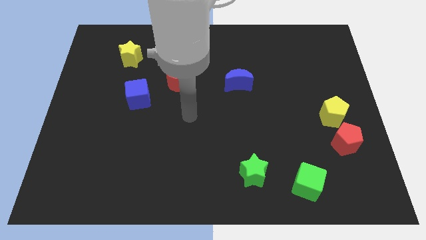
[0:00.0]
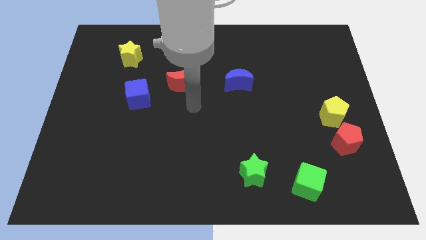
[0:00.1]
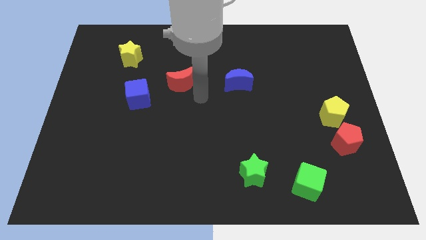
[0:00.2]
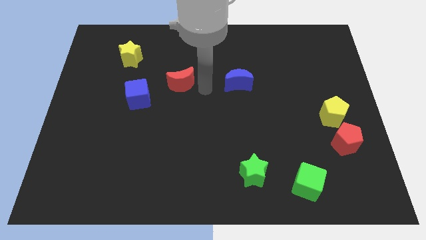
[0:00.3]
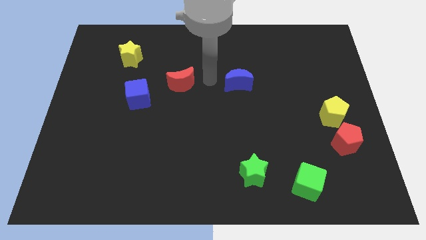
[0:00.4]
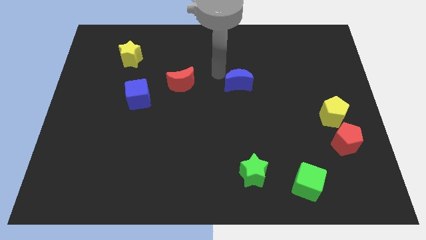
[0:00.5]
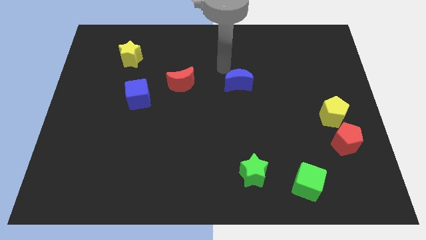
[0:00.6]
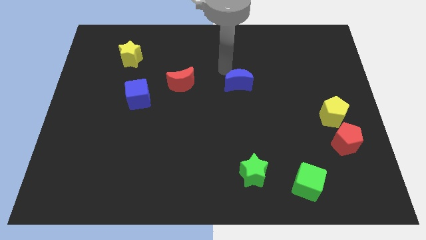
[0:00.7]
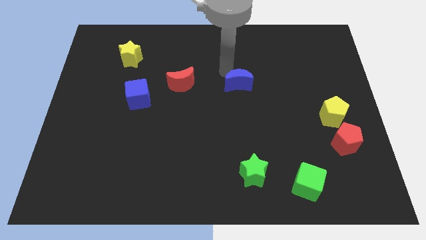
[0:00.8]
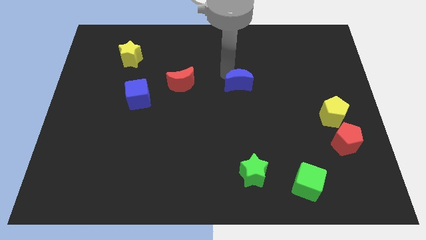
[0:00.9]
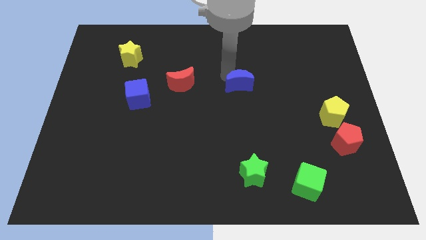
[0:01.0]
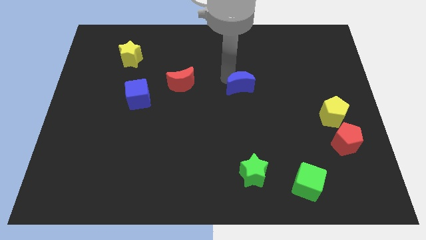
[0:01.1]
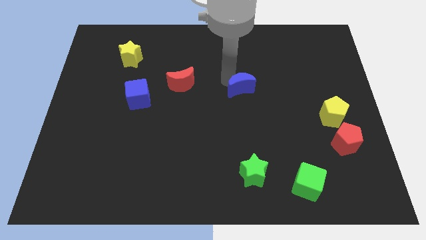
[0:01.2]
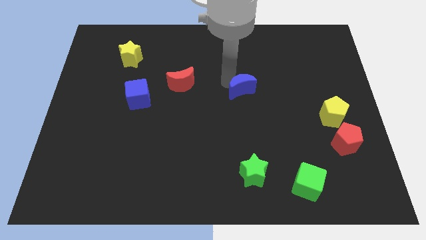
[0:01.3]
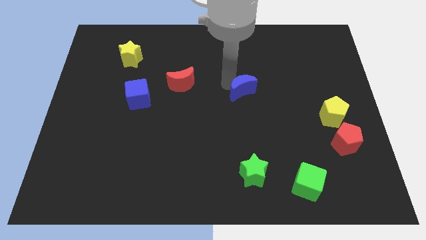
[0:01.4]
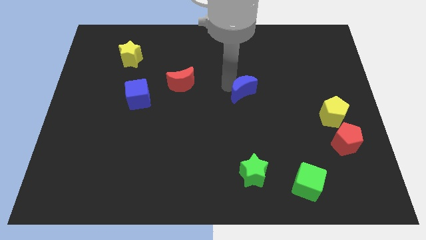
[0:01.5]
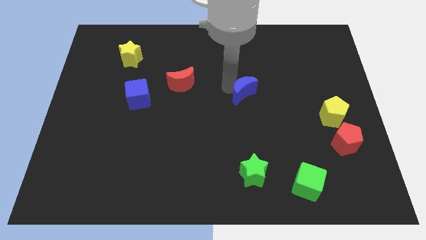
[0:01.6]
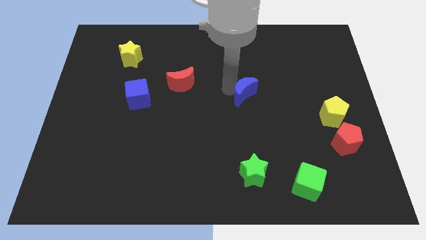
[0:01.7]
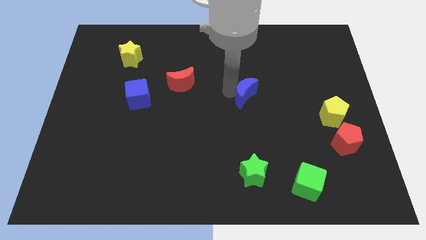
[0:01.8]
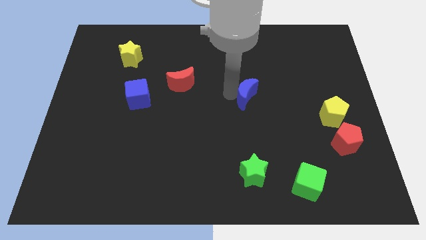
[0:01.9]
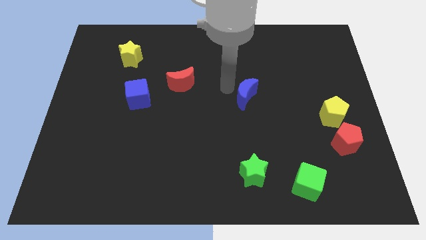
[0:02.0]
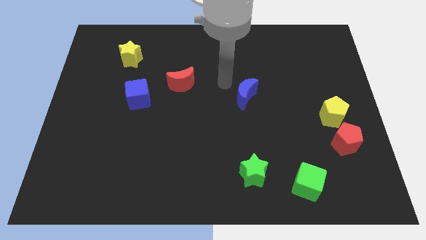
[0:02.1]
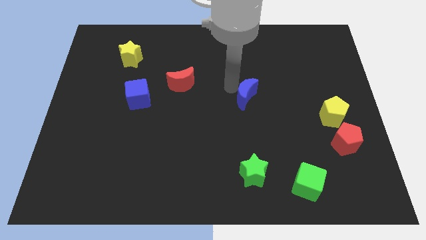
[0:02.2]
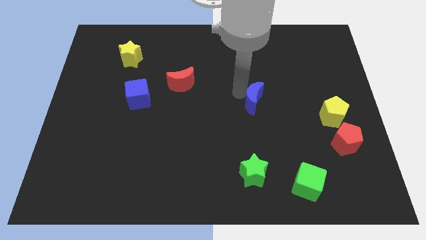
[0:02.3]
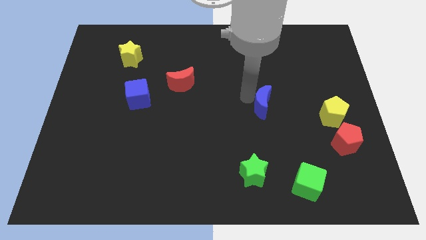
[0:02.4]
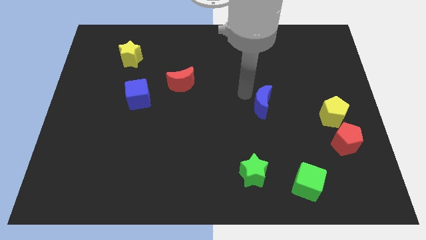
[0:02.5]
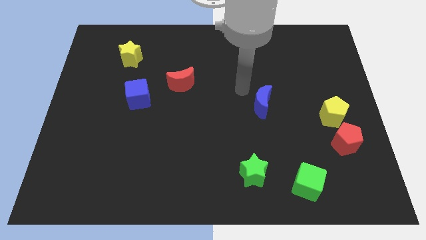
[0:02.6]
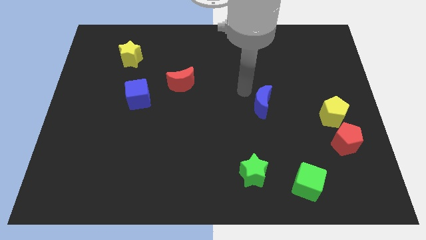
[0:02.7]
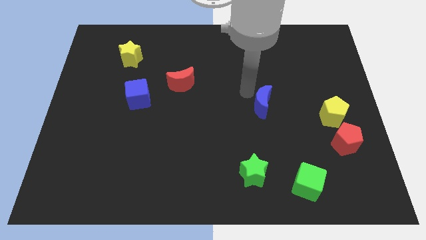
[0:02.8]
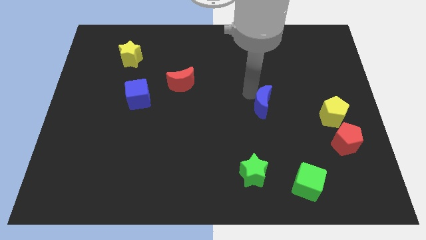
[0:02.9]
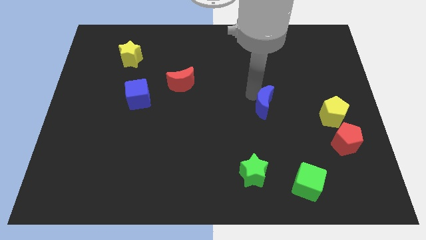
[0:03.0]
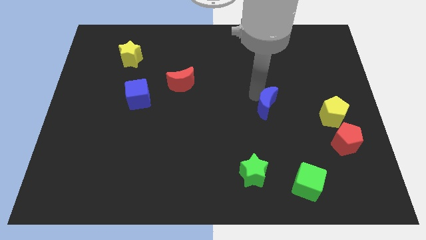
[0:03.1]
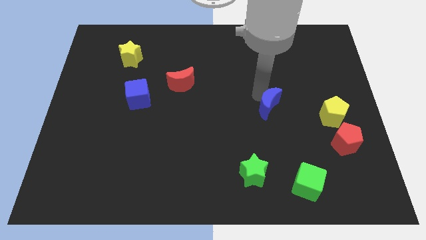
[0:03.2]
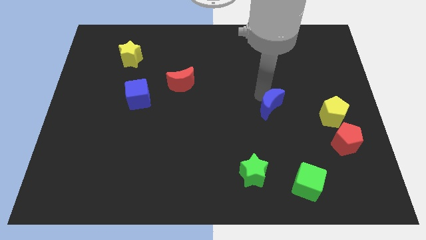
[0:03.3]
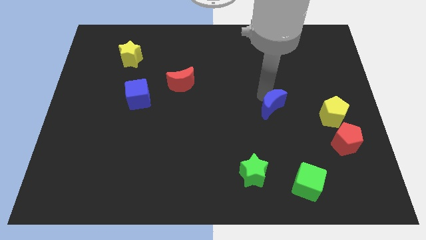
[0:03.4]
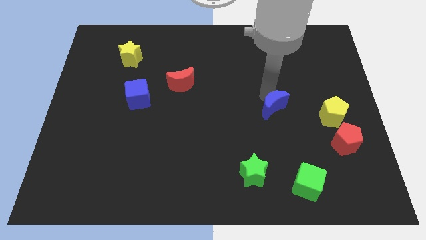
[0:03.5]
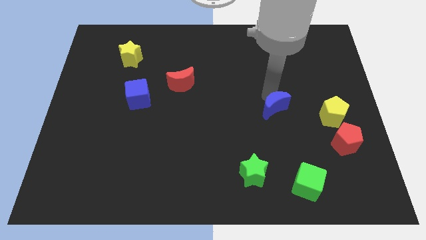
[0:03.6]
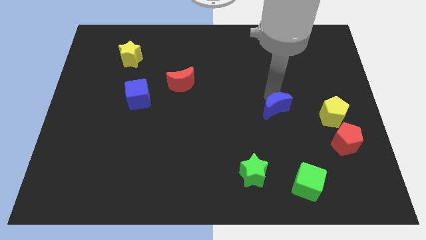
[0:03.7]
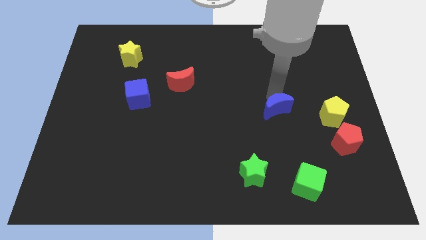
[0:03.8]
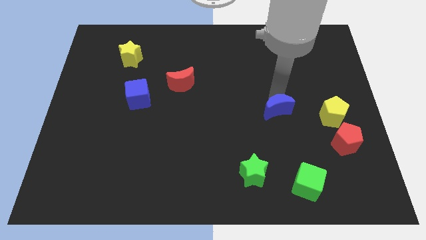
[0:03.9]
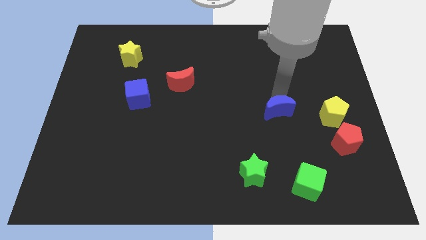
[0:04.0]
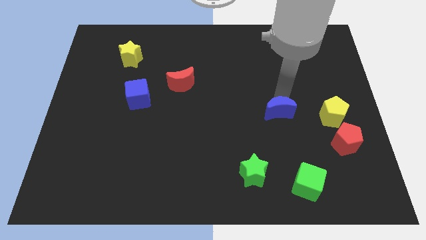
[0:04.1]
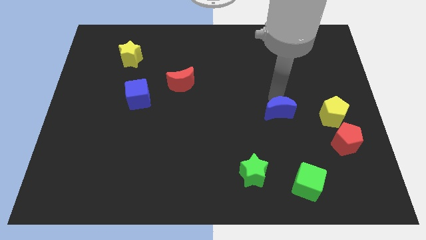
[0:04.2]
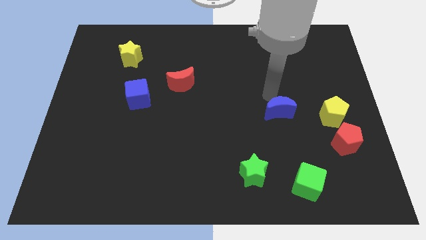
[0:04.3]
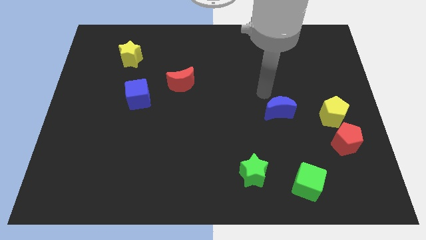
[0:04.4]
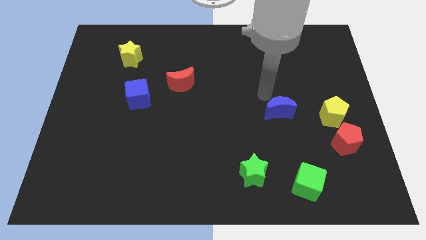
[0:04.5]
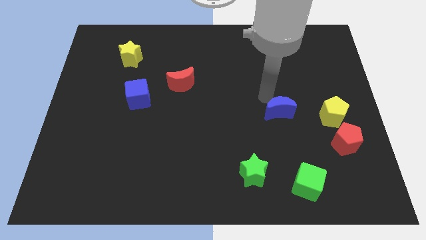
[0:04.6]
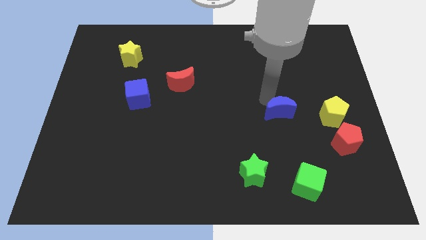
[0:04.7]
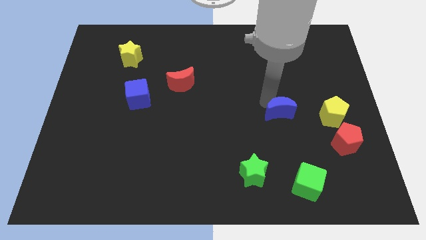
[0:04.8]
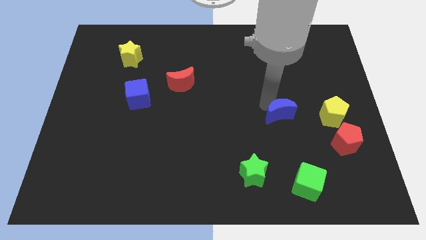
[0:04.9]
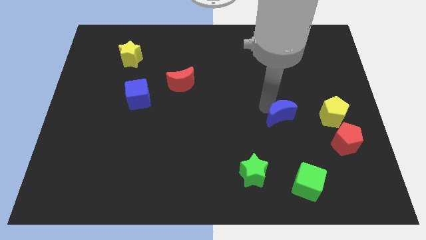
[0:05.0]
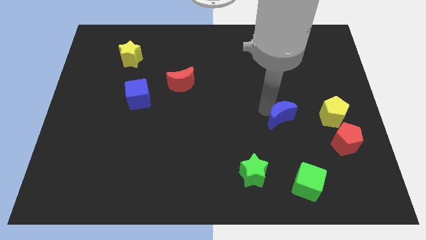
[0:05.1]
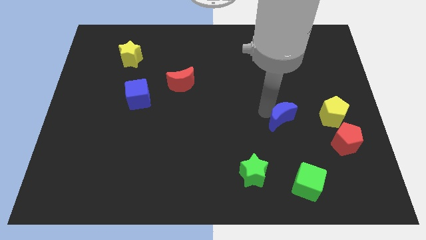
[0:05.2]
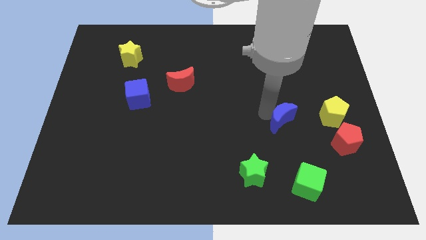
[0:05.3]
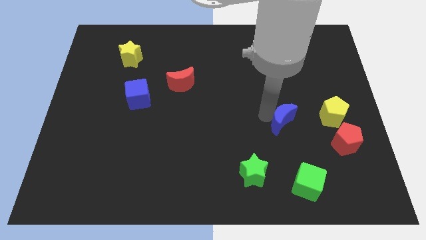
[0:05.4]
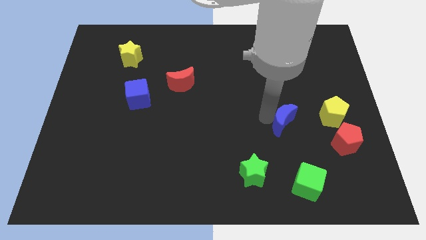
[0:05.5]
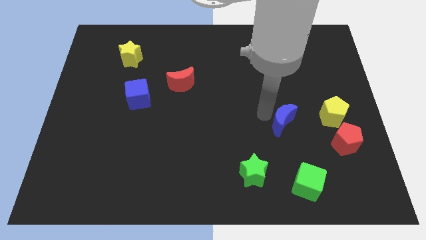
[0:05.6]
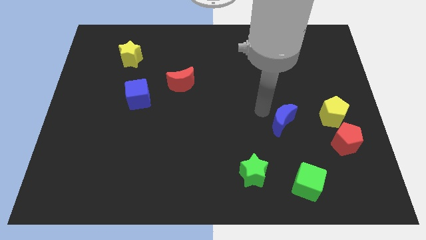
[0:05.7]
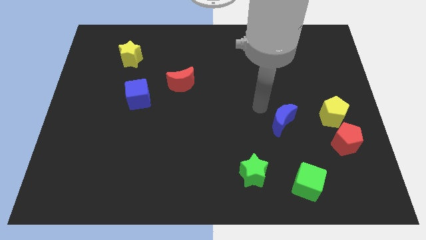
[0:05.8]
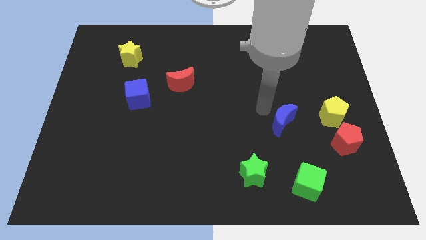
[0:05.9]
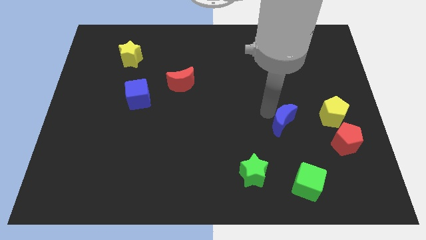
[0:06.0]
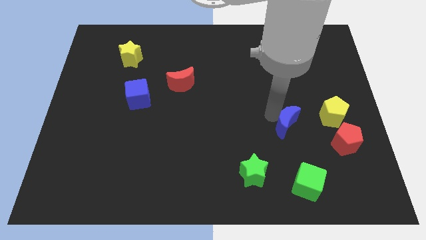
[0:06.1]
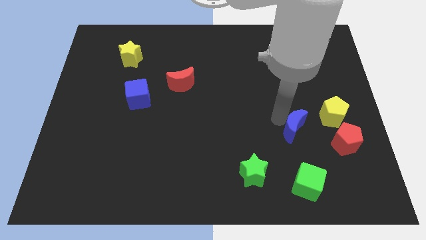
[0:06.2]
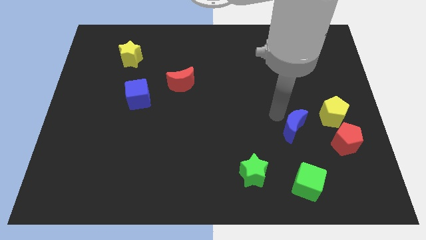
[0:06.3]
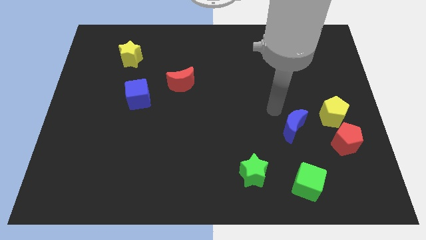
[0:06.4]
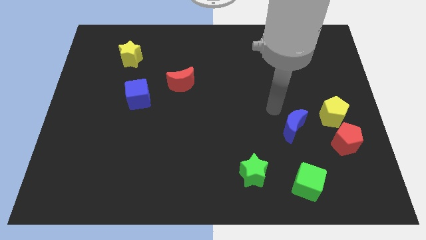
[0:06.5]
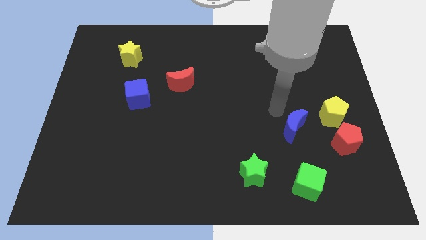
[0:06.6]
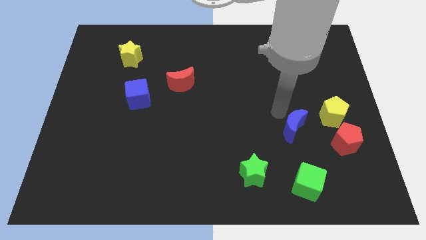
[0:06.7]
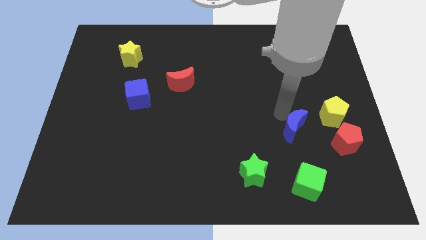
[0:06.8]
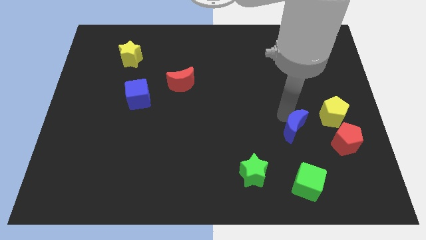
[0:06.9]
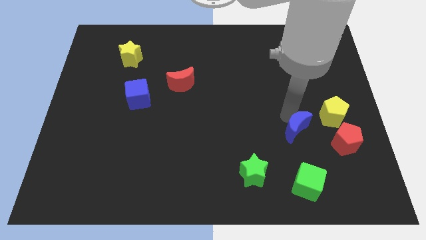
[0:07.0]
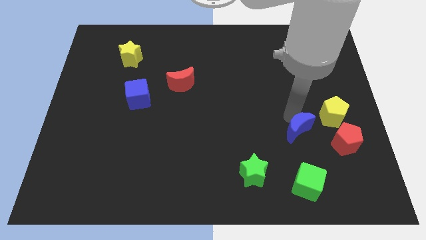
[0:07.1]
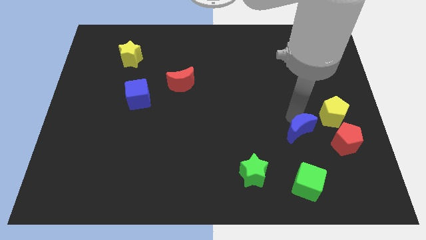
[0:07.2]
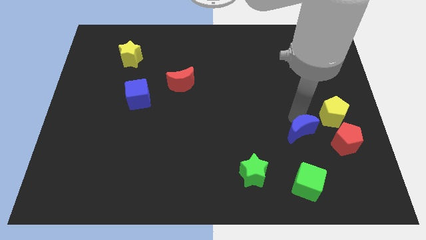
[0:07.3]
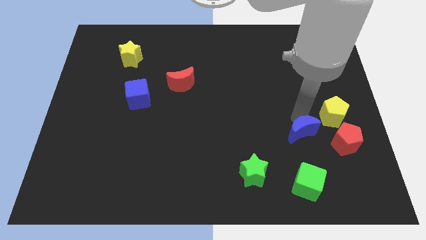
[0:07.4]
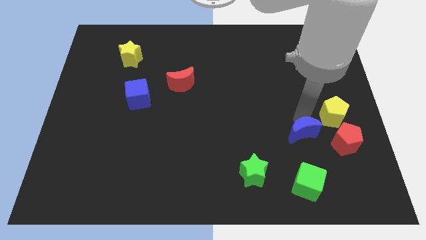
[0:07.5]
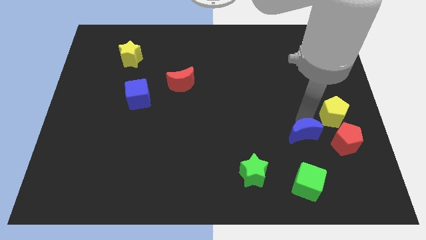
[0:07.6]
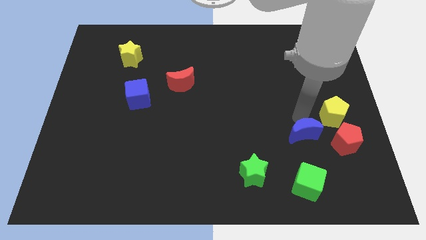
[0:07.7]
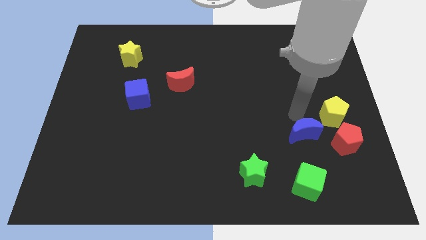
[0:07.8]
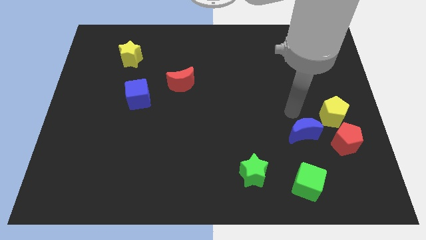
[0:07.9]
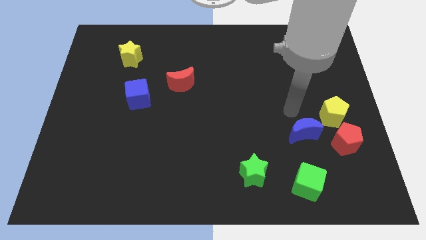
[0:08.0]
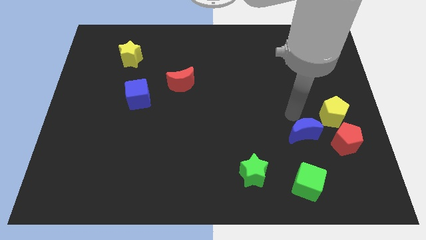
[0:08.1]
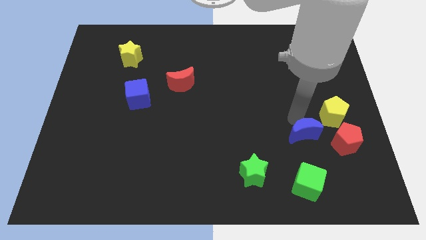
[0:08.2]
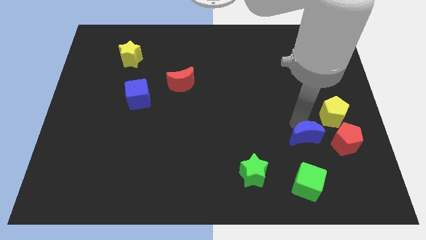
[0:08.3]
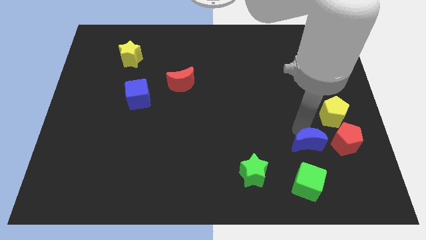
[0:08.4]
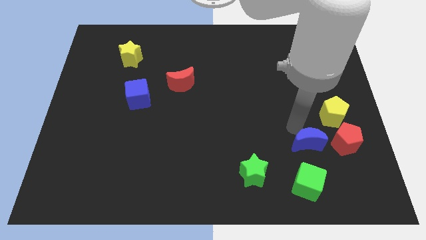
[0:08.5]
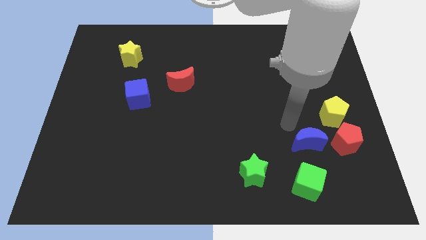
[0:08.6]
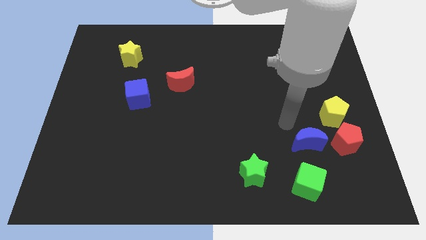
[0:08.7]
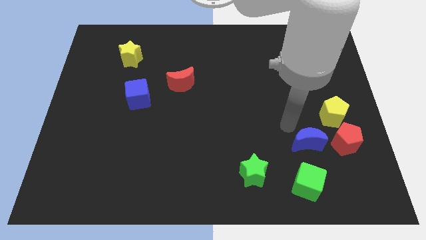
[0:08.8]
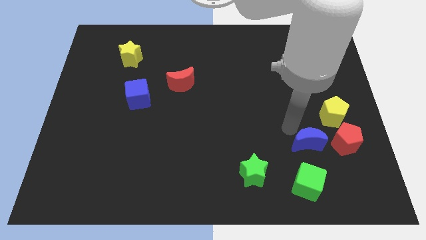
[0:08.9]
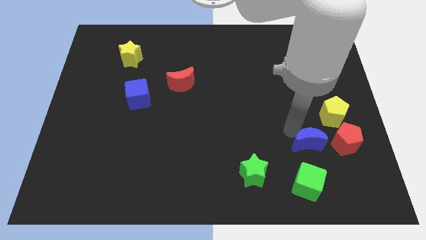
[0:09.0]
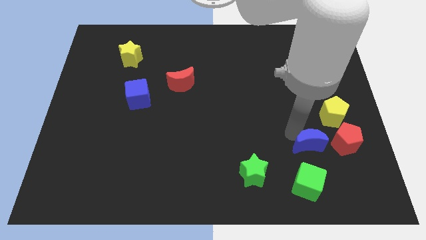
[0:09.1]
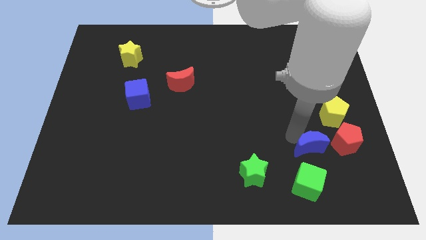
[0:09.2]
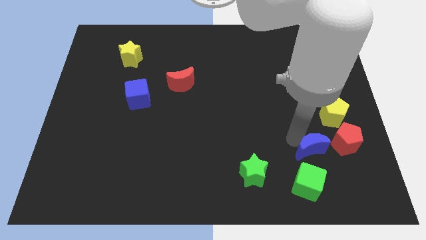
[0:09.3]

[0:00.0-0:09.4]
slide the blue moon to the top right of the green cube
